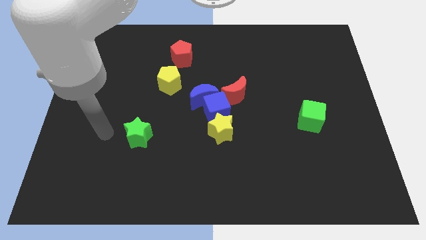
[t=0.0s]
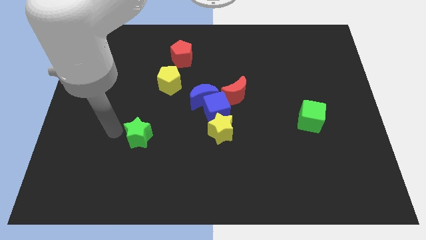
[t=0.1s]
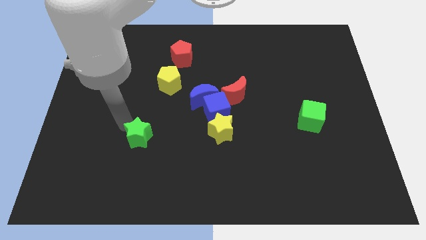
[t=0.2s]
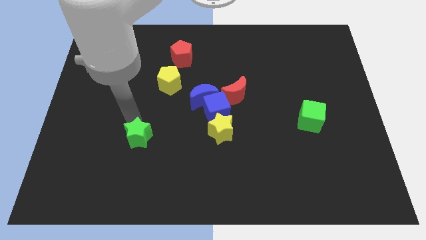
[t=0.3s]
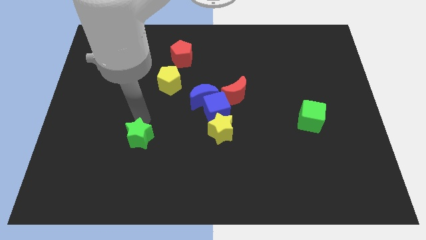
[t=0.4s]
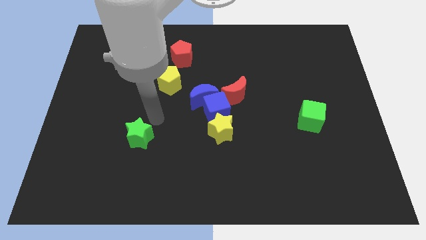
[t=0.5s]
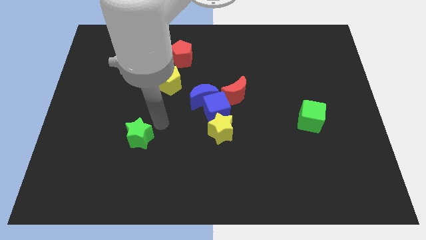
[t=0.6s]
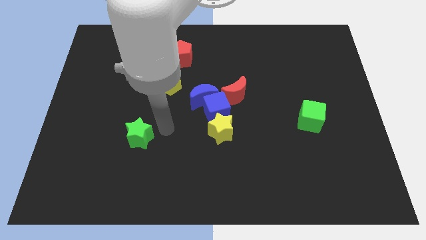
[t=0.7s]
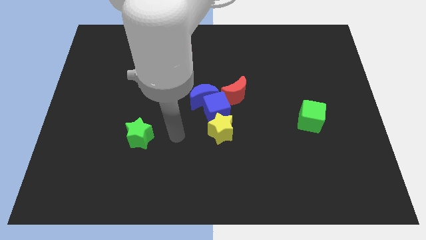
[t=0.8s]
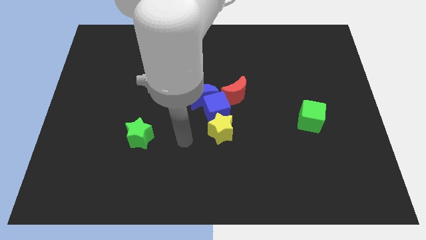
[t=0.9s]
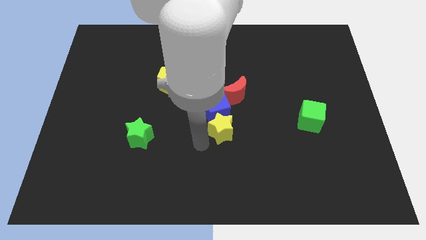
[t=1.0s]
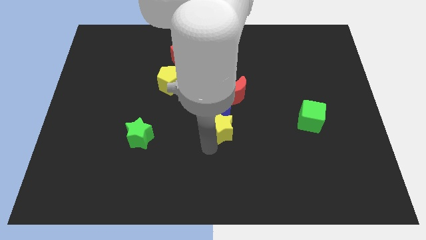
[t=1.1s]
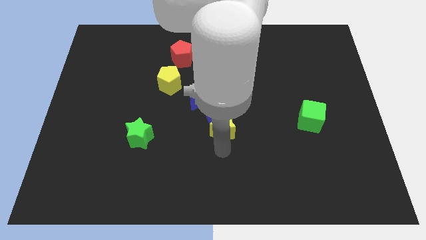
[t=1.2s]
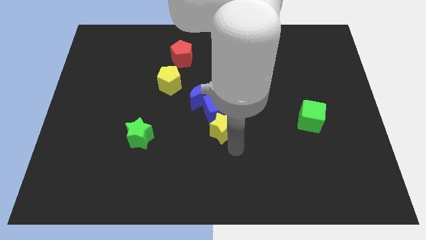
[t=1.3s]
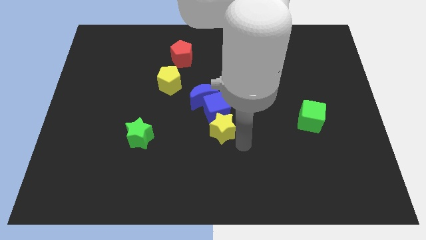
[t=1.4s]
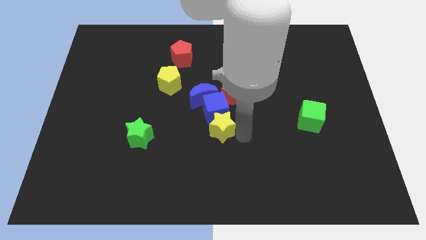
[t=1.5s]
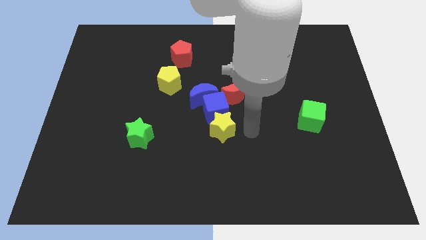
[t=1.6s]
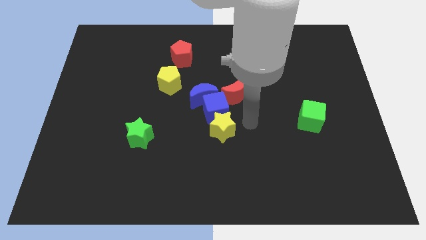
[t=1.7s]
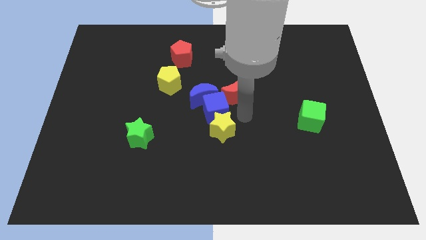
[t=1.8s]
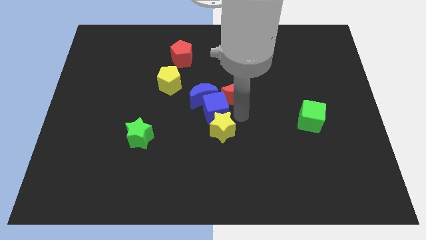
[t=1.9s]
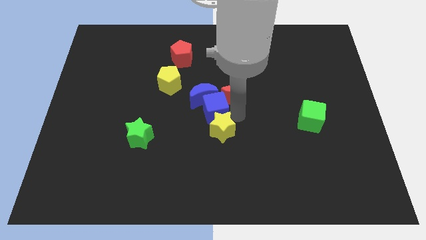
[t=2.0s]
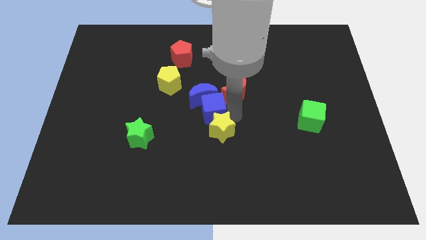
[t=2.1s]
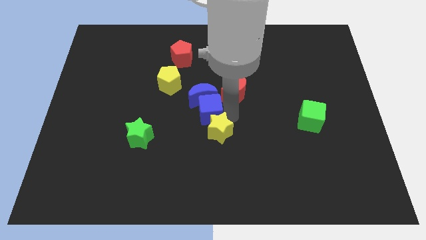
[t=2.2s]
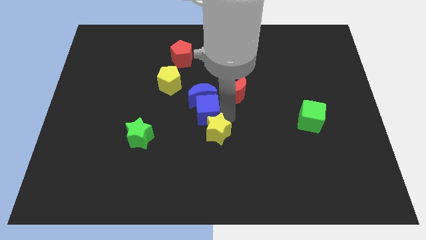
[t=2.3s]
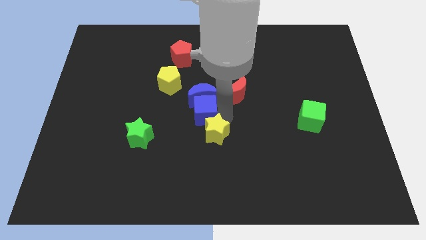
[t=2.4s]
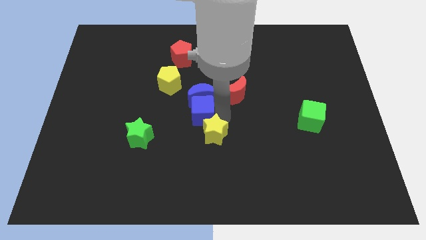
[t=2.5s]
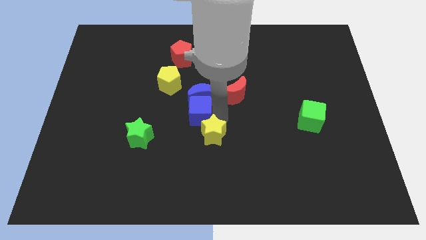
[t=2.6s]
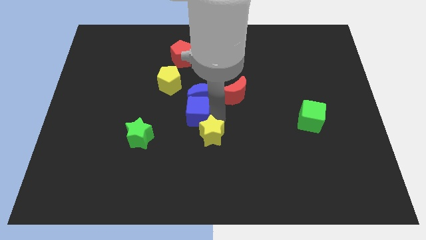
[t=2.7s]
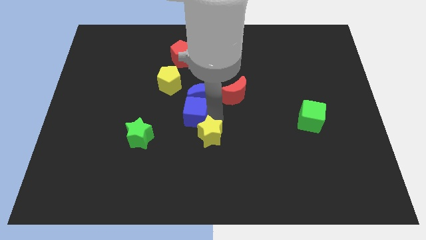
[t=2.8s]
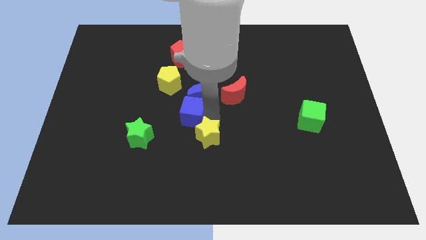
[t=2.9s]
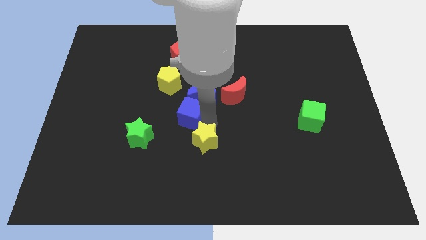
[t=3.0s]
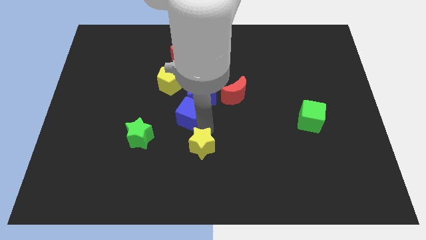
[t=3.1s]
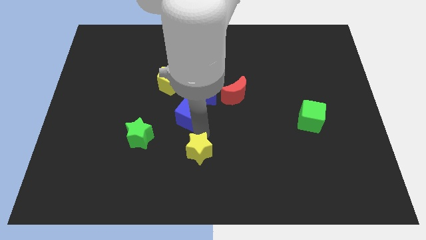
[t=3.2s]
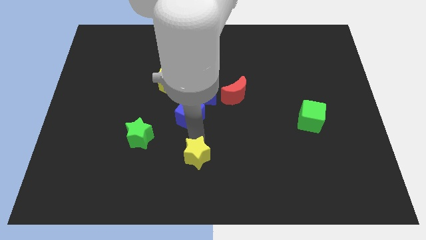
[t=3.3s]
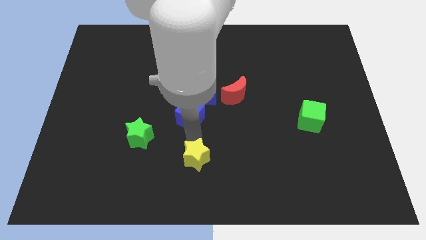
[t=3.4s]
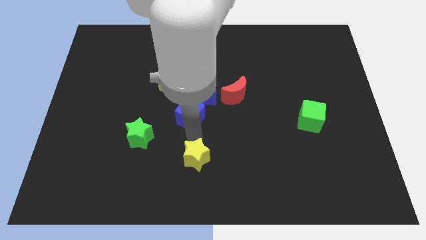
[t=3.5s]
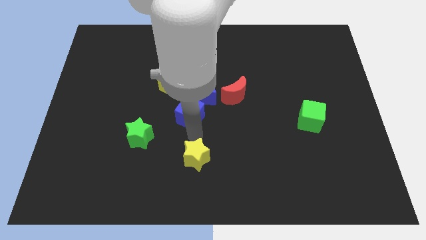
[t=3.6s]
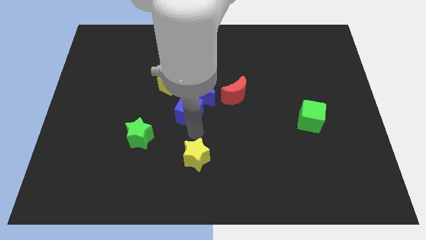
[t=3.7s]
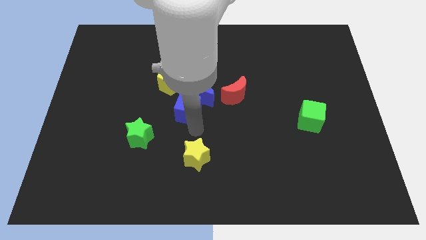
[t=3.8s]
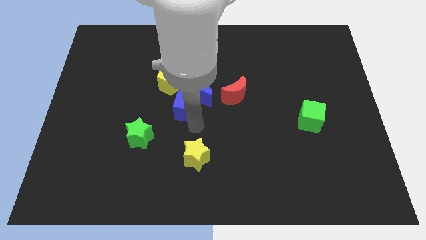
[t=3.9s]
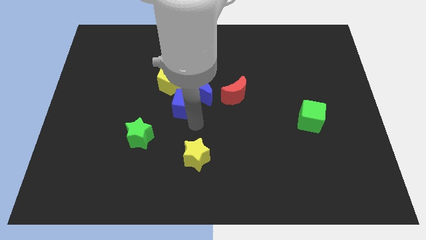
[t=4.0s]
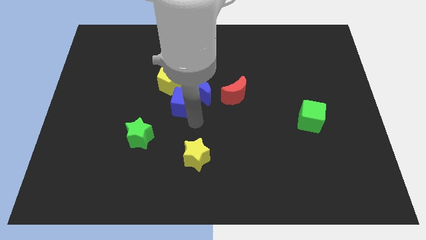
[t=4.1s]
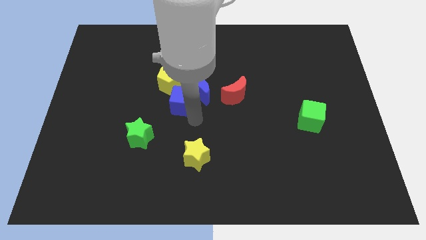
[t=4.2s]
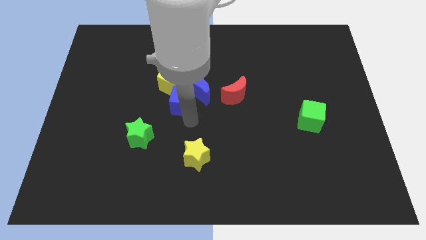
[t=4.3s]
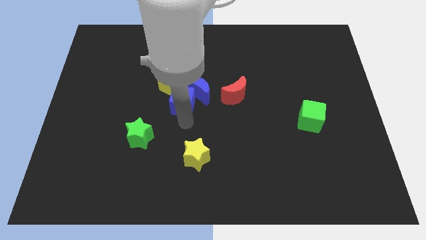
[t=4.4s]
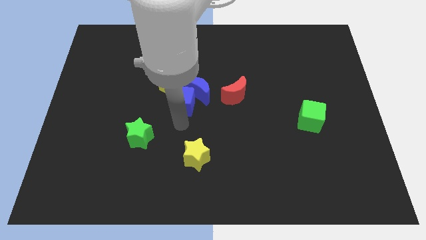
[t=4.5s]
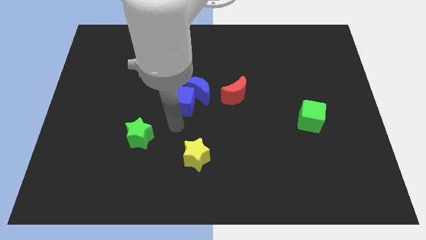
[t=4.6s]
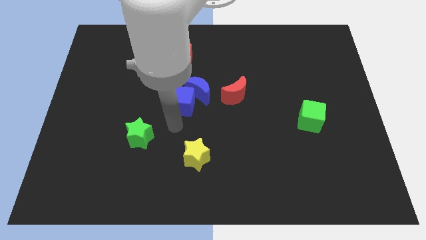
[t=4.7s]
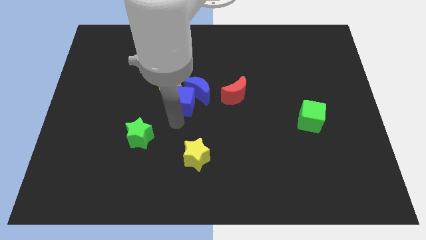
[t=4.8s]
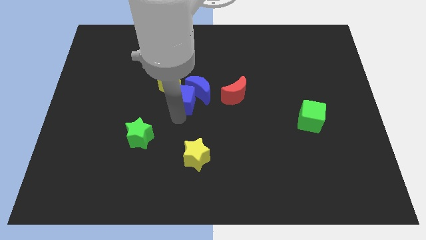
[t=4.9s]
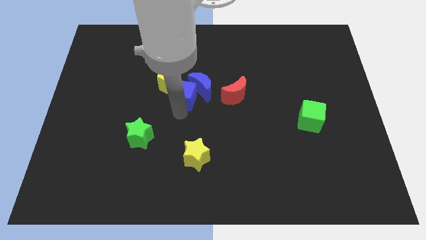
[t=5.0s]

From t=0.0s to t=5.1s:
move the blue cube to the right side of the yellow pentagon

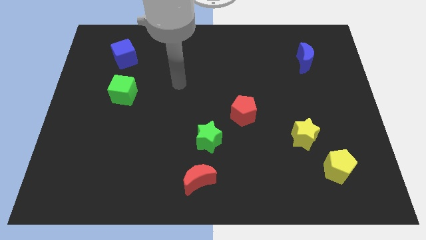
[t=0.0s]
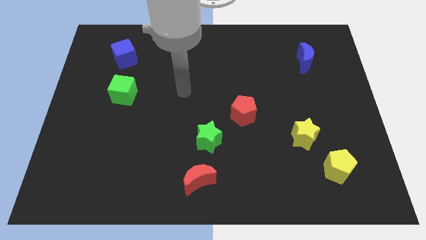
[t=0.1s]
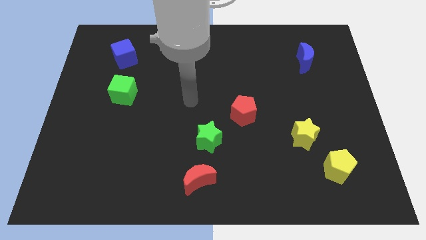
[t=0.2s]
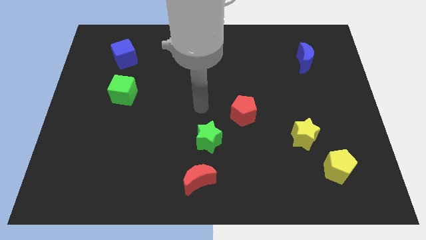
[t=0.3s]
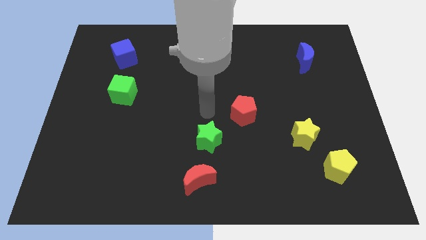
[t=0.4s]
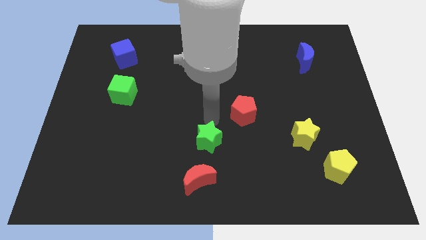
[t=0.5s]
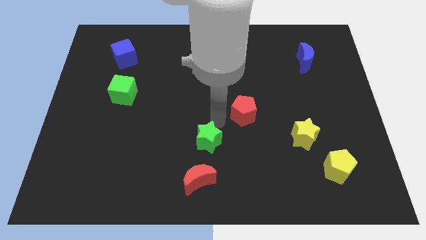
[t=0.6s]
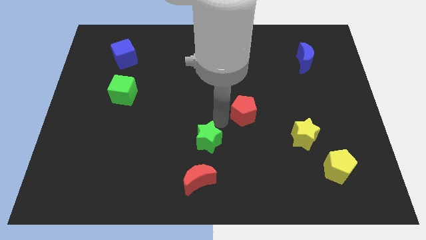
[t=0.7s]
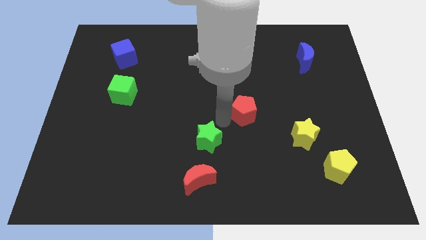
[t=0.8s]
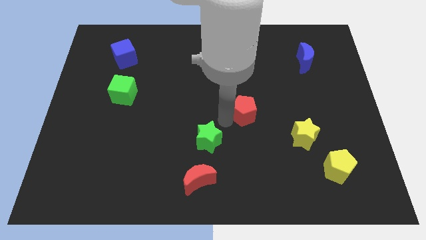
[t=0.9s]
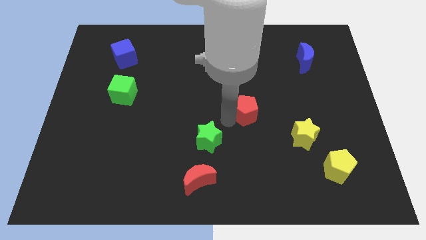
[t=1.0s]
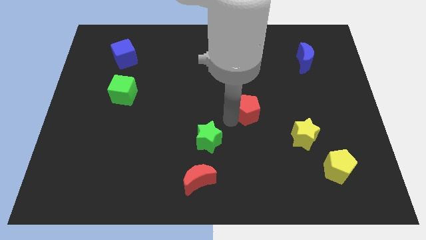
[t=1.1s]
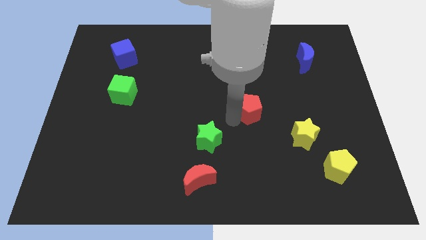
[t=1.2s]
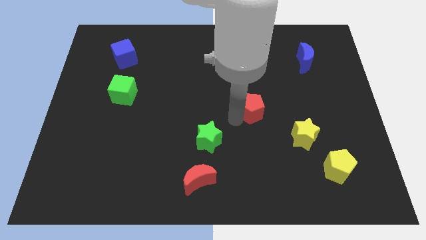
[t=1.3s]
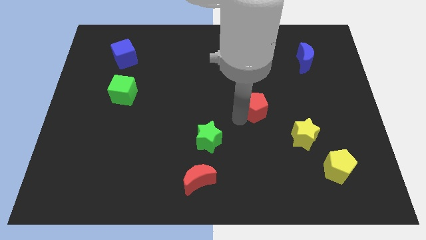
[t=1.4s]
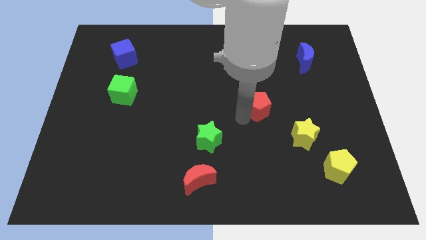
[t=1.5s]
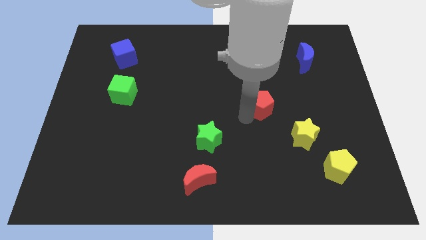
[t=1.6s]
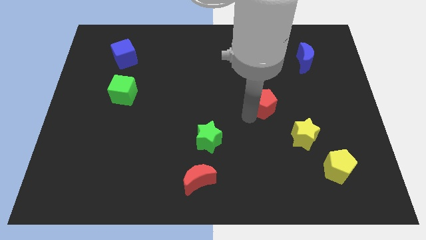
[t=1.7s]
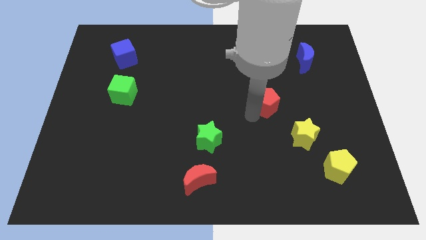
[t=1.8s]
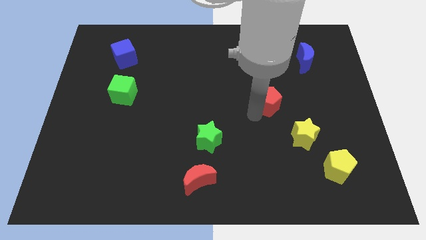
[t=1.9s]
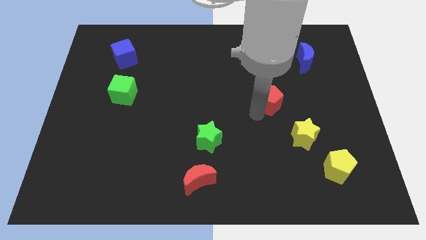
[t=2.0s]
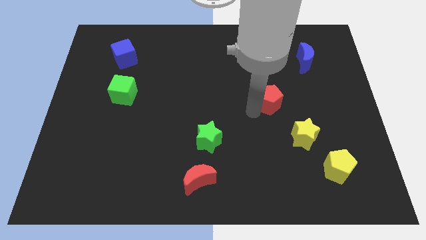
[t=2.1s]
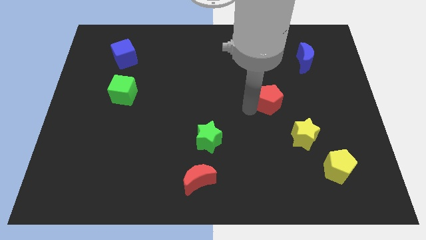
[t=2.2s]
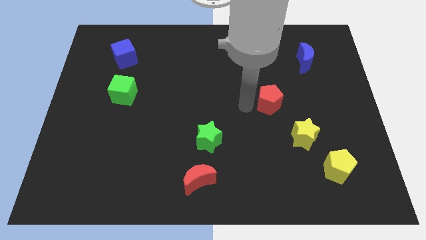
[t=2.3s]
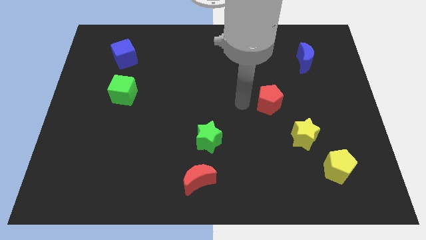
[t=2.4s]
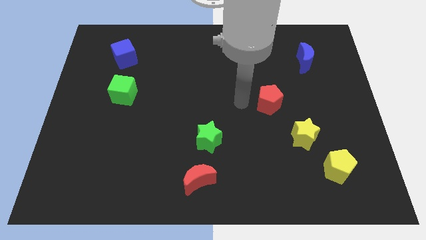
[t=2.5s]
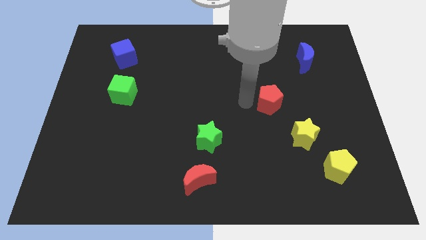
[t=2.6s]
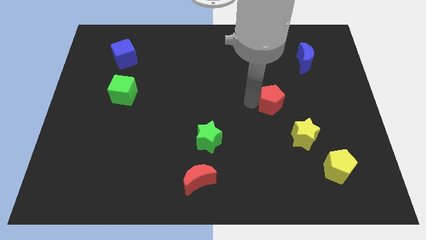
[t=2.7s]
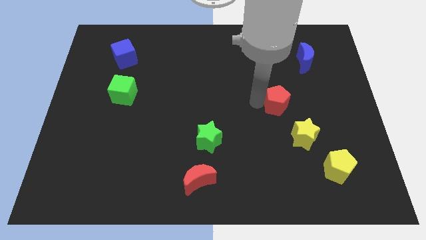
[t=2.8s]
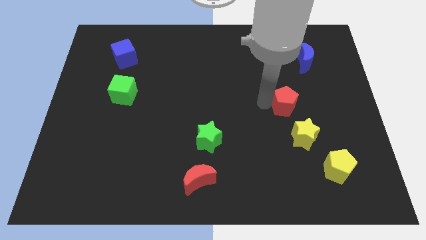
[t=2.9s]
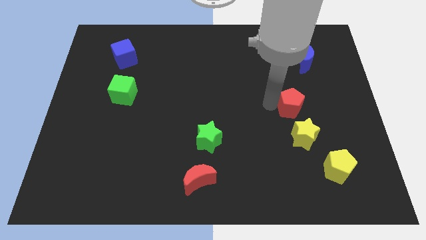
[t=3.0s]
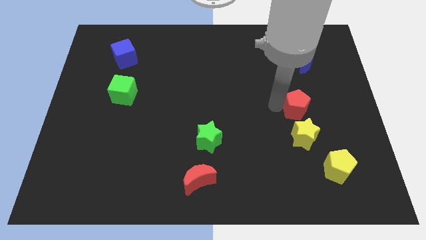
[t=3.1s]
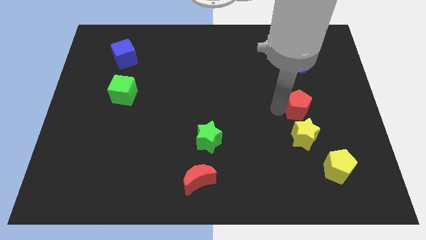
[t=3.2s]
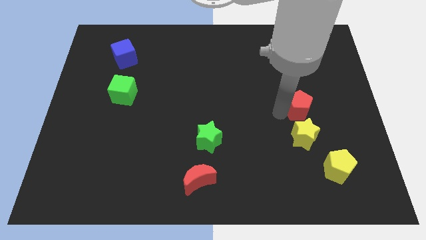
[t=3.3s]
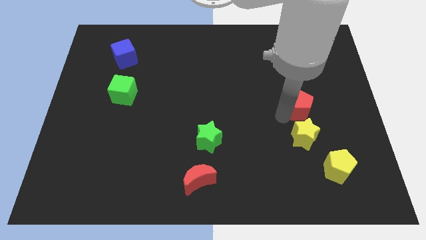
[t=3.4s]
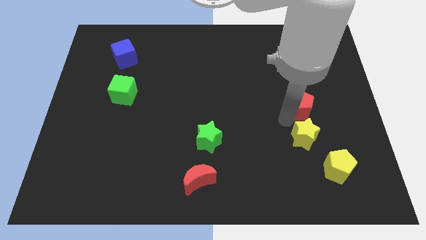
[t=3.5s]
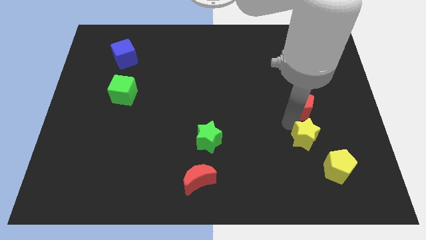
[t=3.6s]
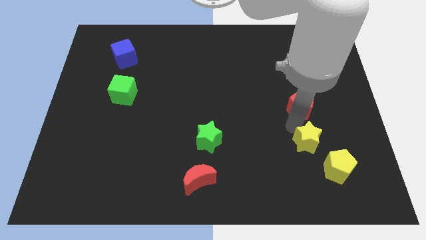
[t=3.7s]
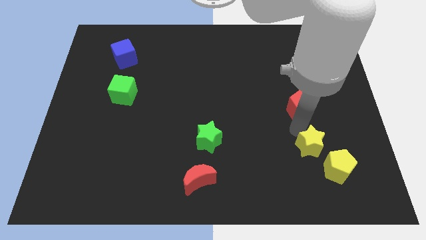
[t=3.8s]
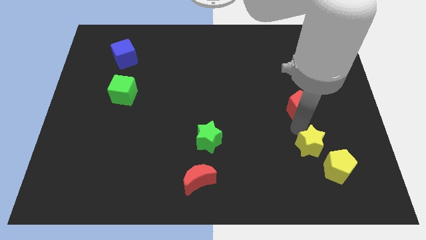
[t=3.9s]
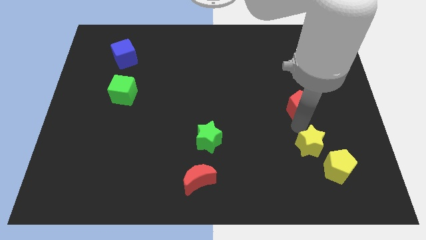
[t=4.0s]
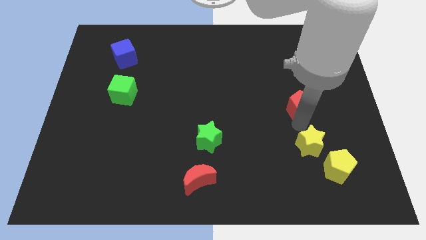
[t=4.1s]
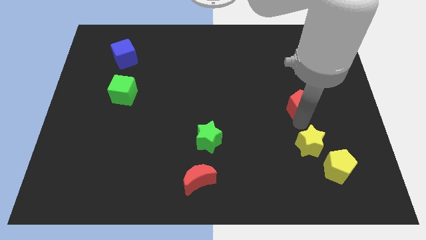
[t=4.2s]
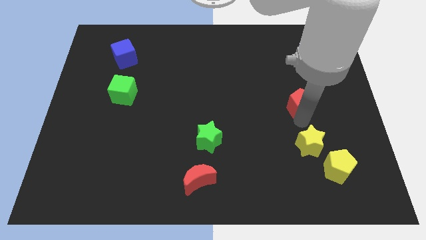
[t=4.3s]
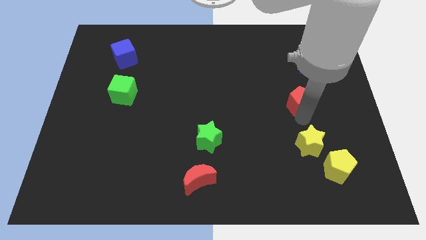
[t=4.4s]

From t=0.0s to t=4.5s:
move the red pentagon to the bottom side of the blue moon
